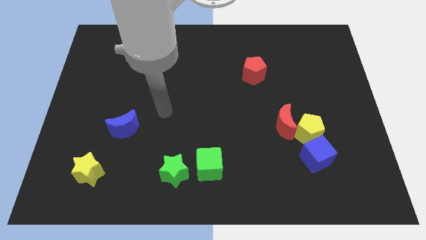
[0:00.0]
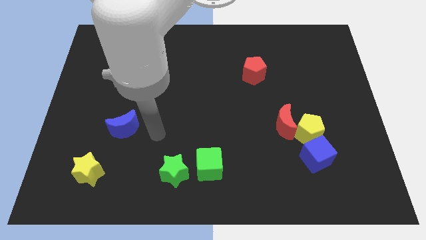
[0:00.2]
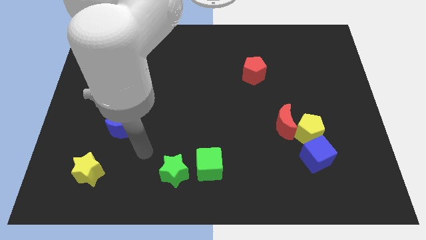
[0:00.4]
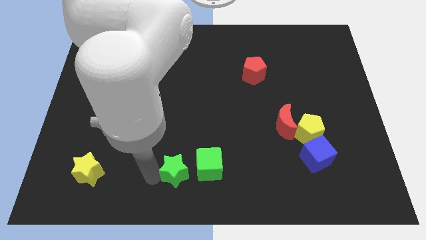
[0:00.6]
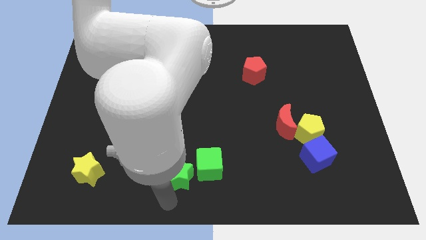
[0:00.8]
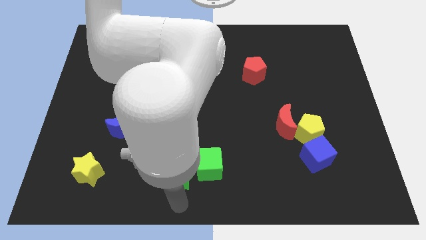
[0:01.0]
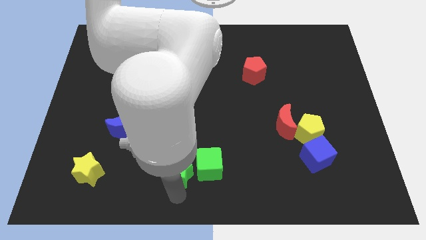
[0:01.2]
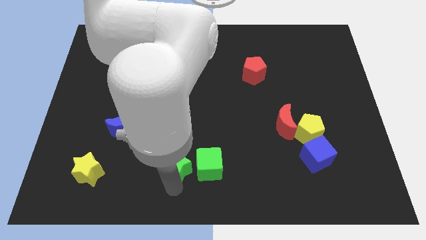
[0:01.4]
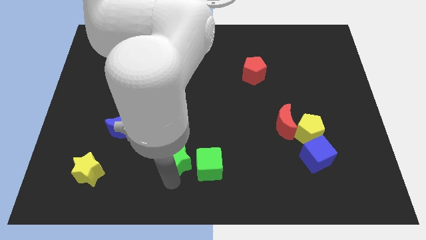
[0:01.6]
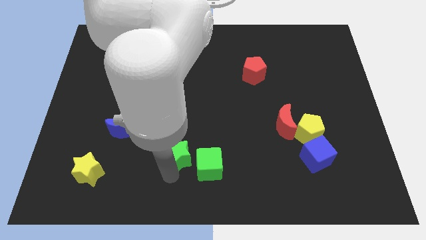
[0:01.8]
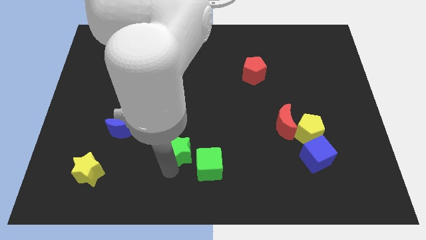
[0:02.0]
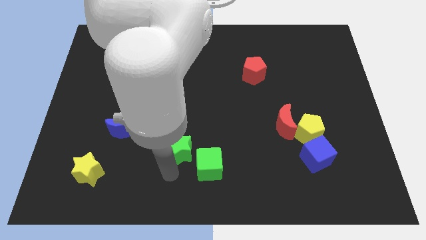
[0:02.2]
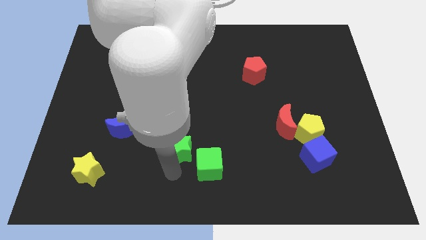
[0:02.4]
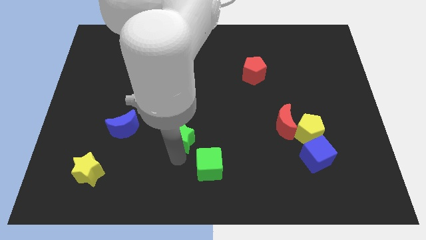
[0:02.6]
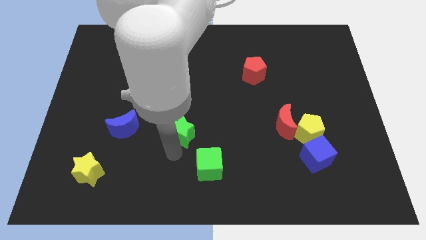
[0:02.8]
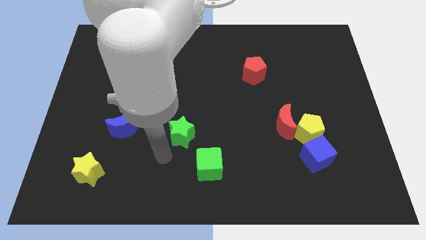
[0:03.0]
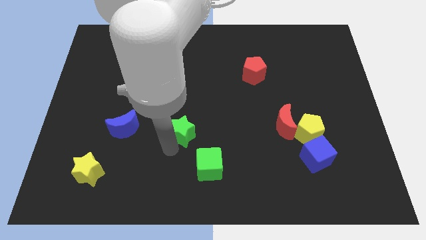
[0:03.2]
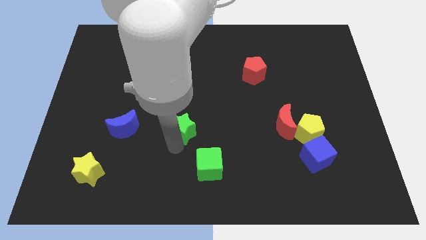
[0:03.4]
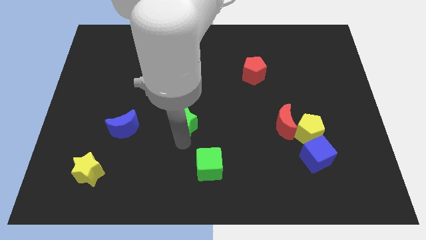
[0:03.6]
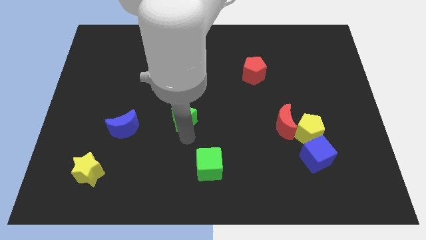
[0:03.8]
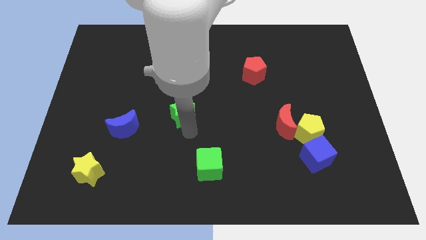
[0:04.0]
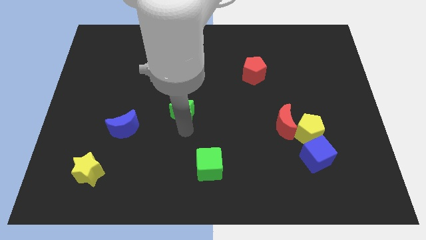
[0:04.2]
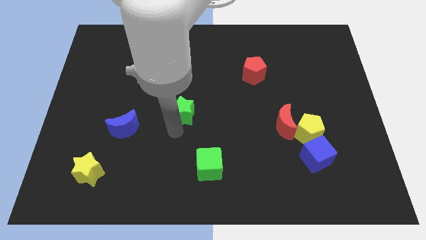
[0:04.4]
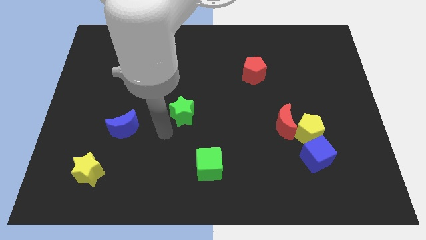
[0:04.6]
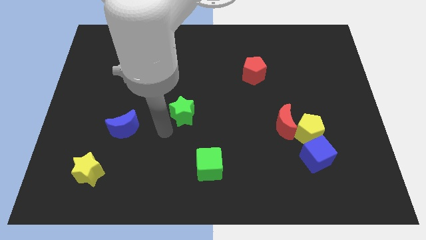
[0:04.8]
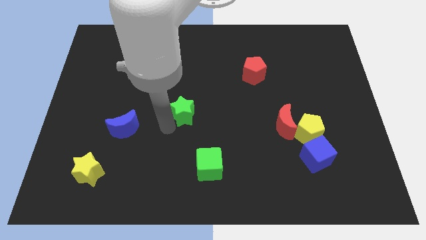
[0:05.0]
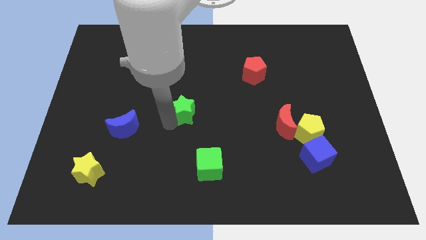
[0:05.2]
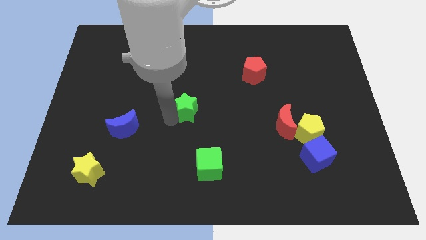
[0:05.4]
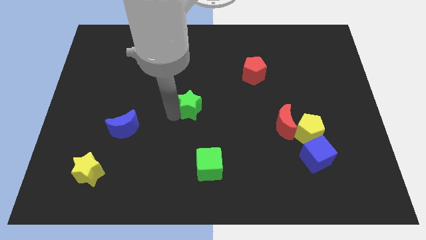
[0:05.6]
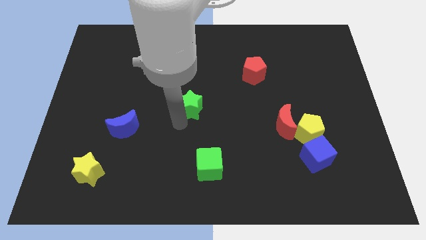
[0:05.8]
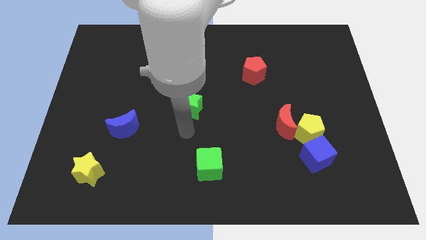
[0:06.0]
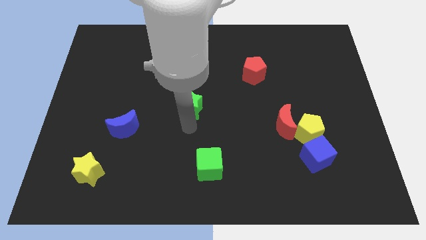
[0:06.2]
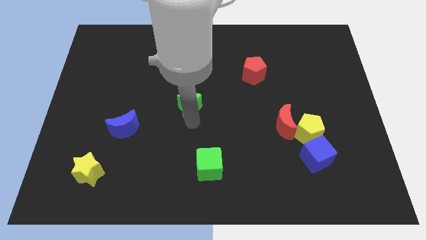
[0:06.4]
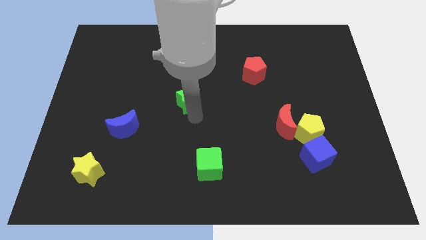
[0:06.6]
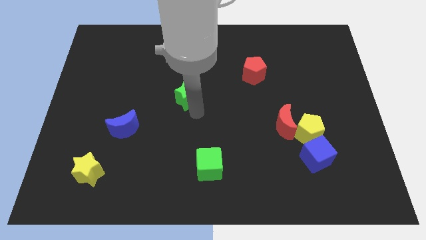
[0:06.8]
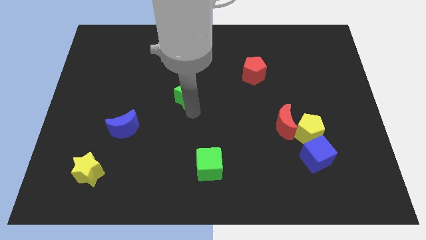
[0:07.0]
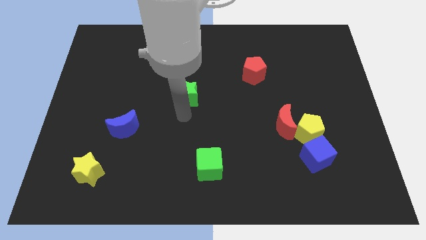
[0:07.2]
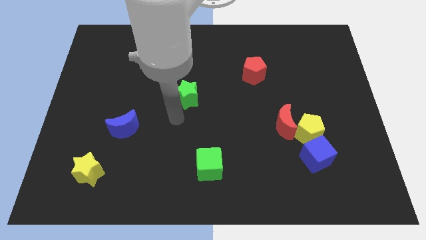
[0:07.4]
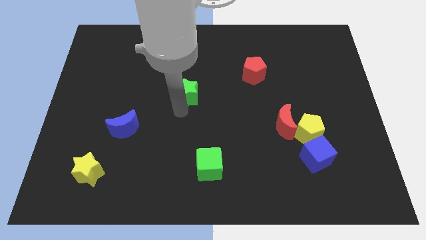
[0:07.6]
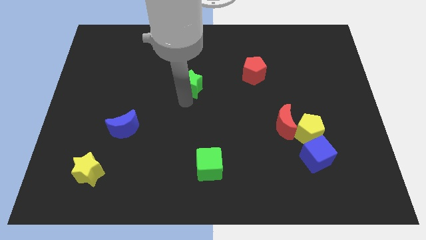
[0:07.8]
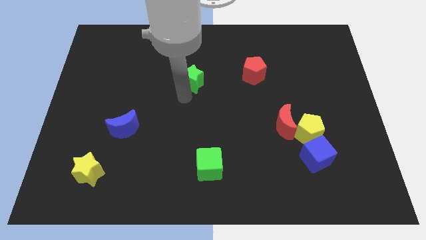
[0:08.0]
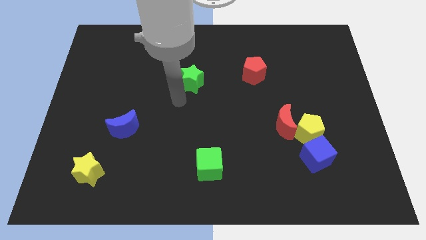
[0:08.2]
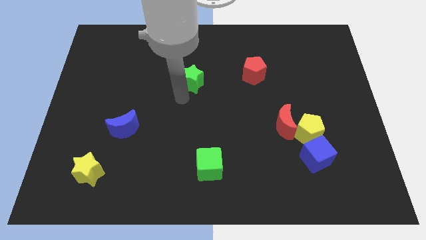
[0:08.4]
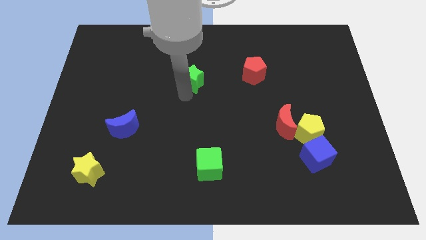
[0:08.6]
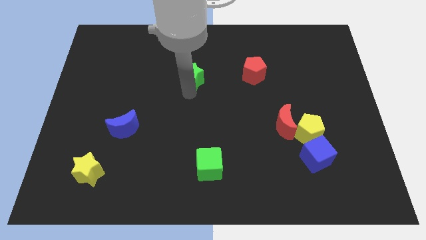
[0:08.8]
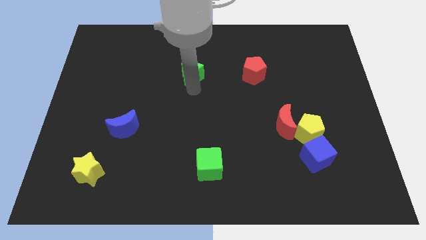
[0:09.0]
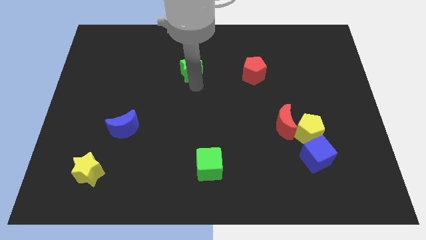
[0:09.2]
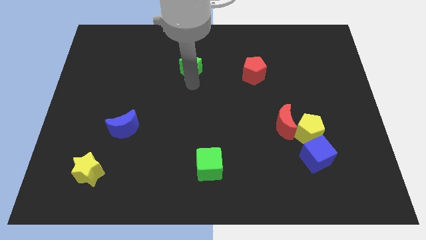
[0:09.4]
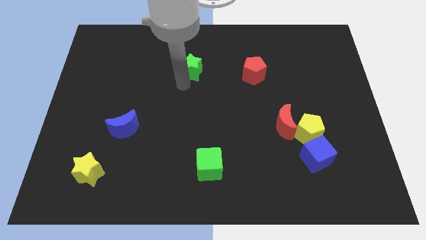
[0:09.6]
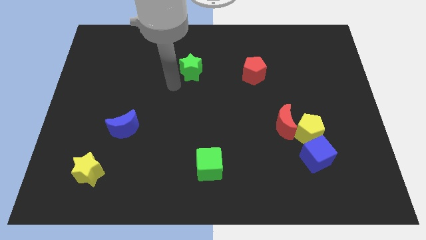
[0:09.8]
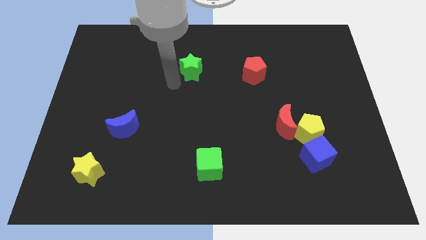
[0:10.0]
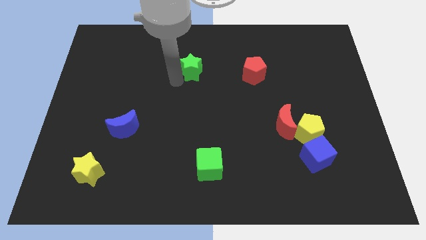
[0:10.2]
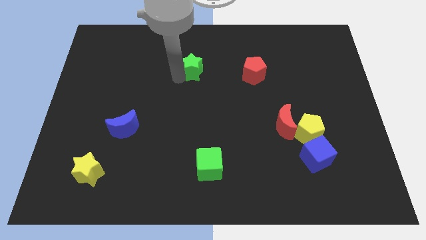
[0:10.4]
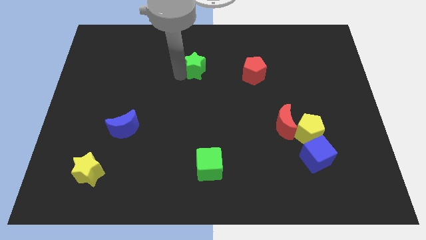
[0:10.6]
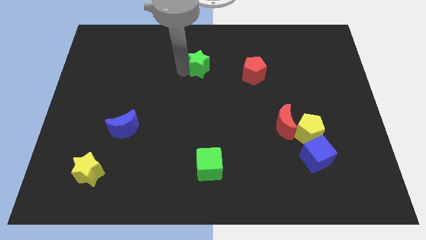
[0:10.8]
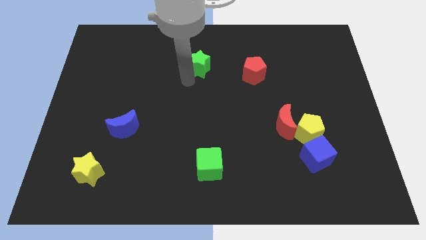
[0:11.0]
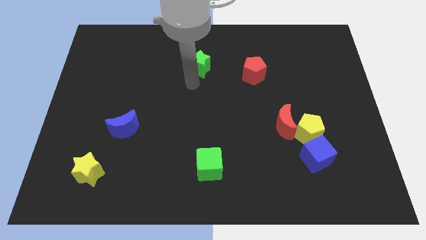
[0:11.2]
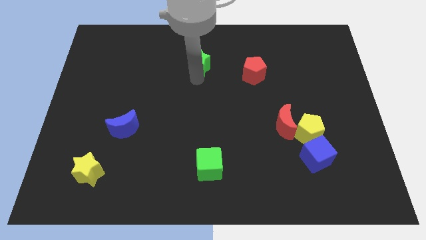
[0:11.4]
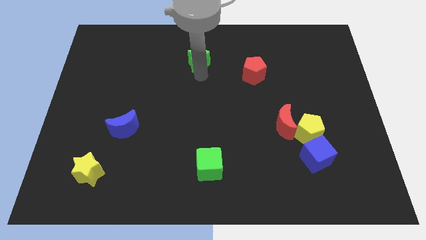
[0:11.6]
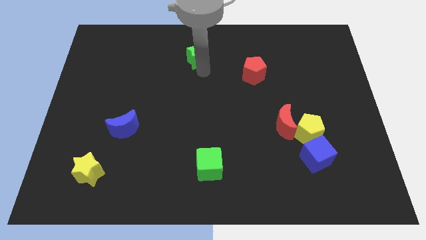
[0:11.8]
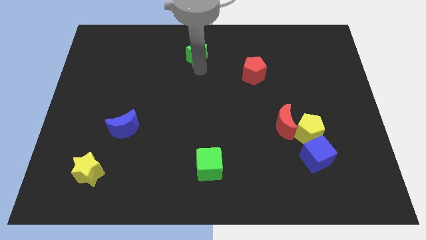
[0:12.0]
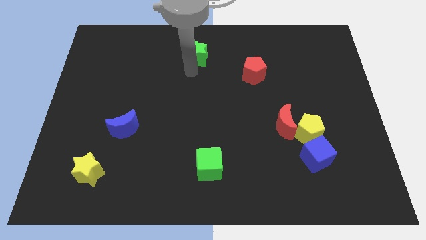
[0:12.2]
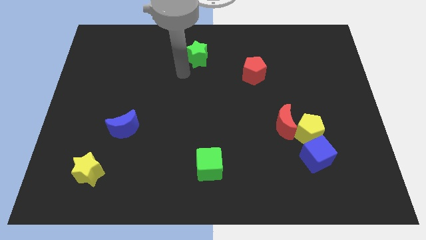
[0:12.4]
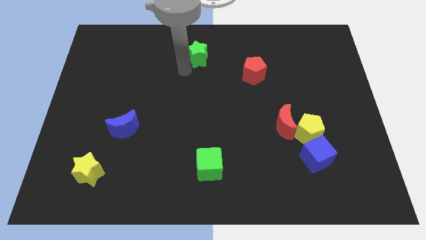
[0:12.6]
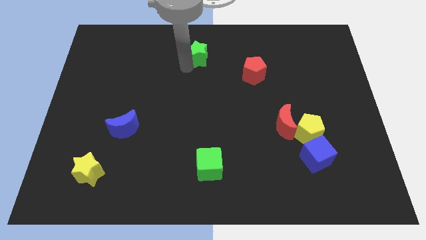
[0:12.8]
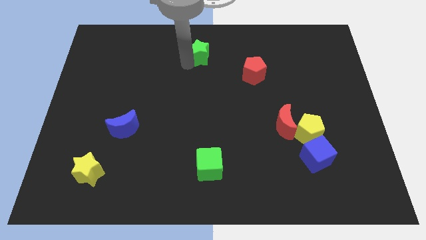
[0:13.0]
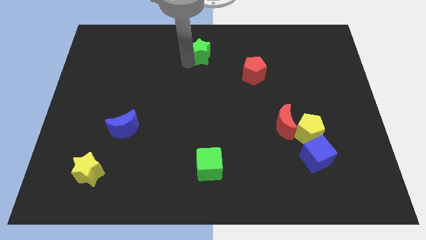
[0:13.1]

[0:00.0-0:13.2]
put the green star to the top side
